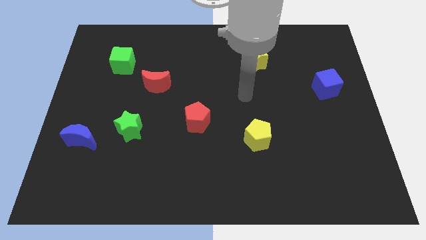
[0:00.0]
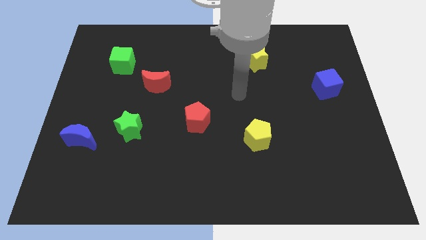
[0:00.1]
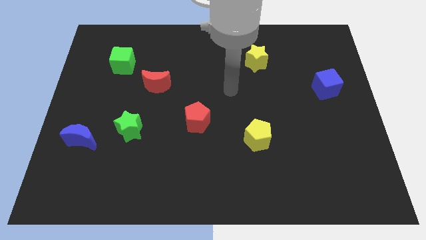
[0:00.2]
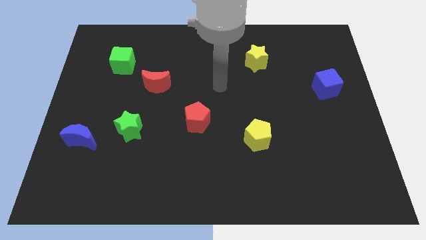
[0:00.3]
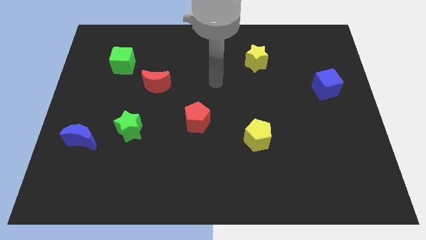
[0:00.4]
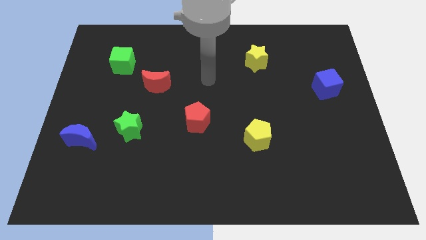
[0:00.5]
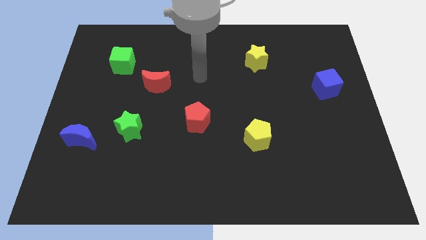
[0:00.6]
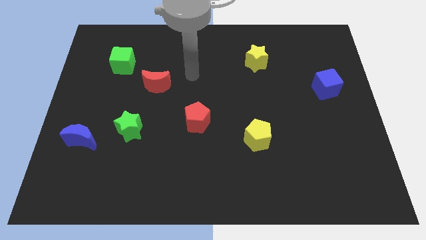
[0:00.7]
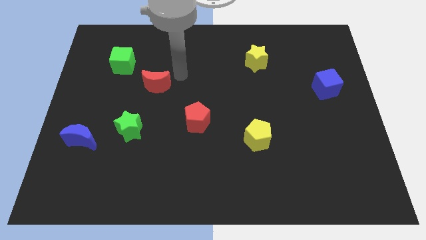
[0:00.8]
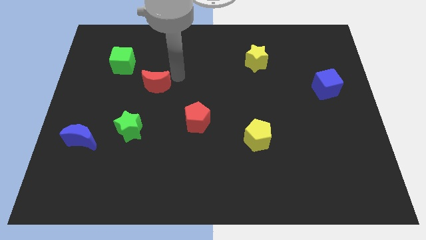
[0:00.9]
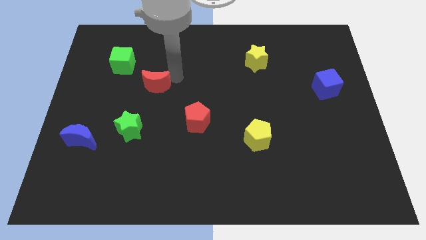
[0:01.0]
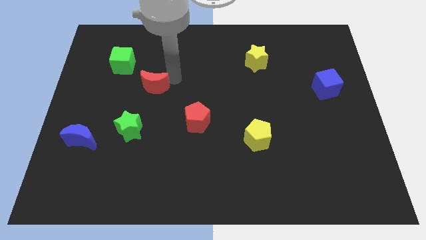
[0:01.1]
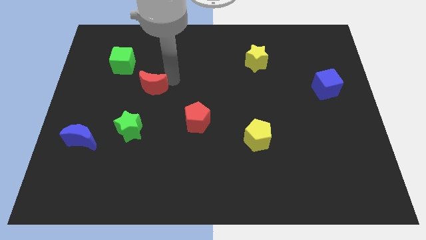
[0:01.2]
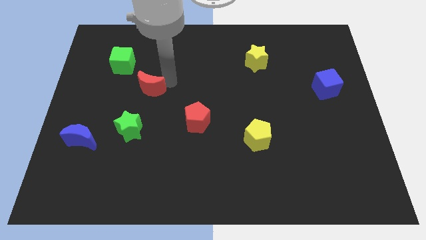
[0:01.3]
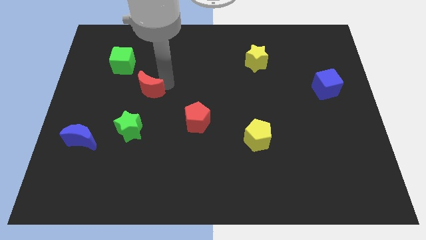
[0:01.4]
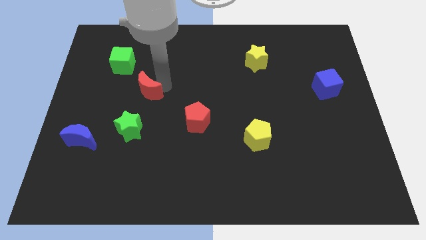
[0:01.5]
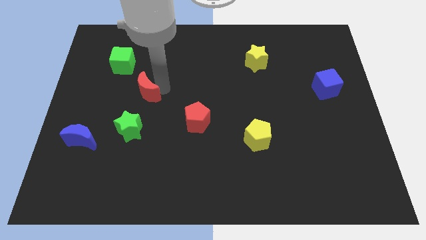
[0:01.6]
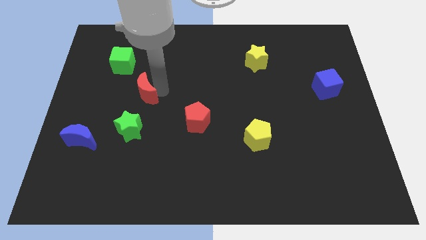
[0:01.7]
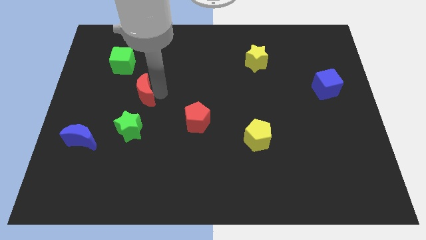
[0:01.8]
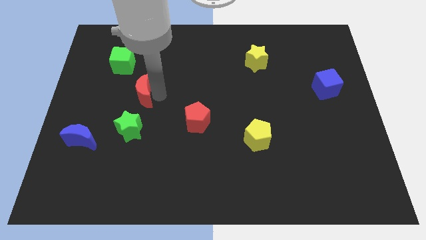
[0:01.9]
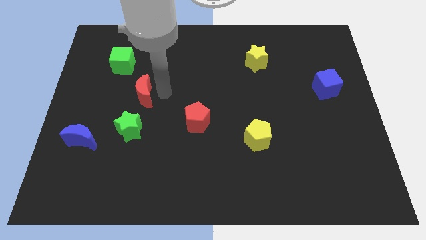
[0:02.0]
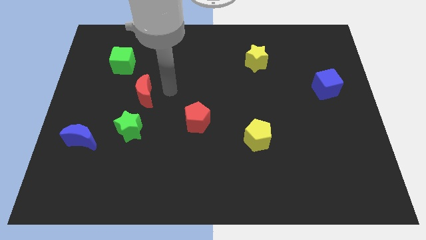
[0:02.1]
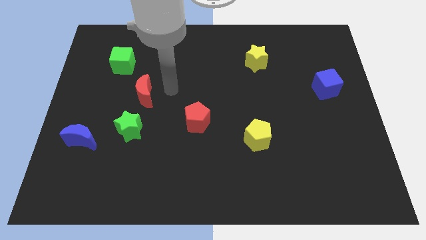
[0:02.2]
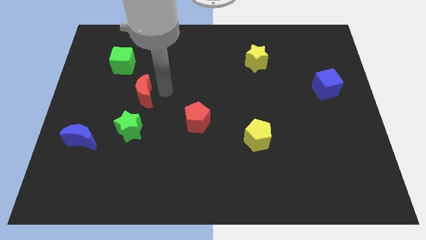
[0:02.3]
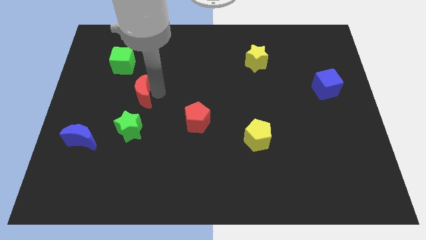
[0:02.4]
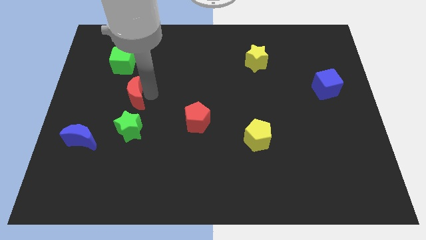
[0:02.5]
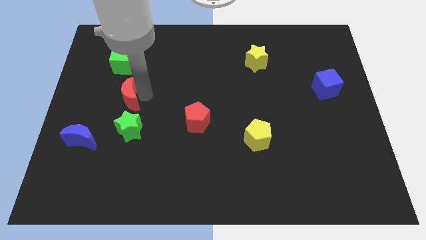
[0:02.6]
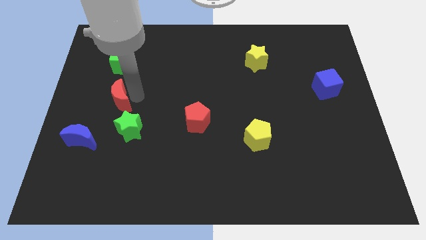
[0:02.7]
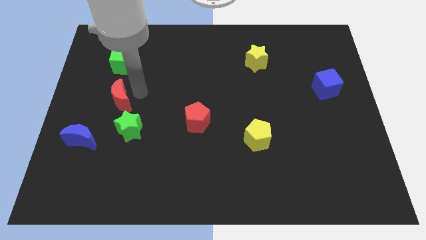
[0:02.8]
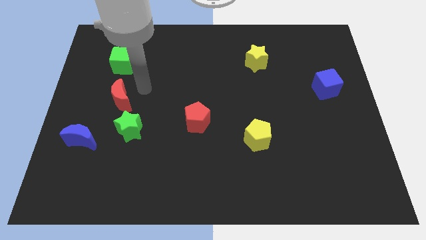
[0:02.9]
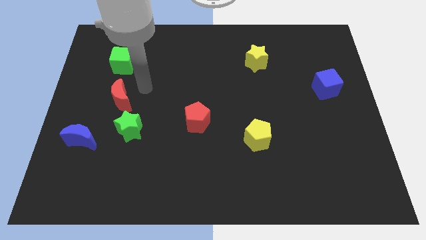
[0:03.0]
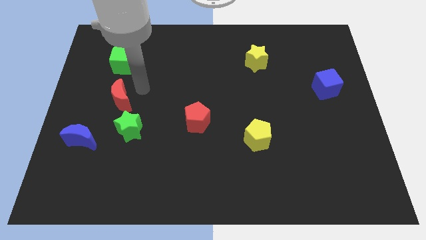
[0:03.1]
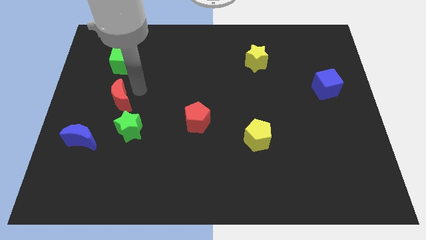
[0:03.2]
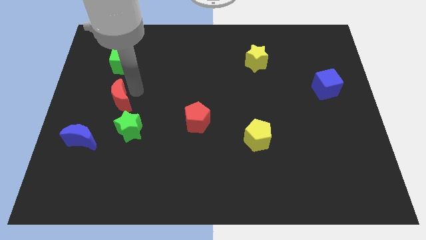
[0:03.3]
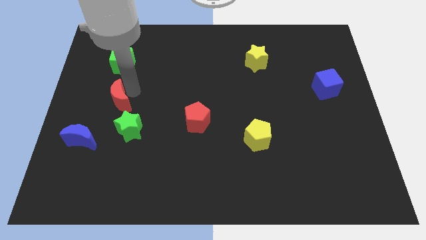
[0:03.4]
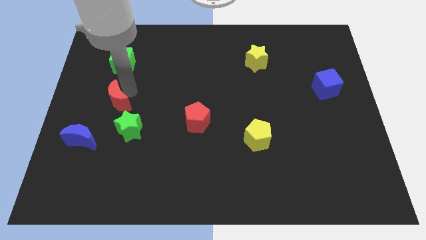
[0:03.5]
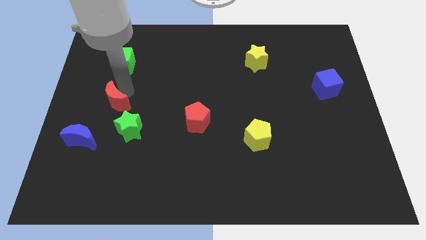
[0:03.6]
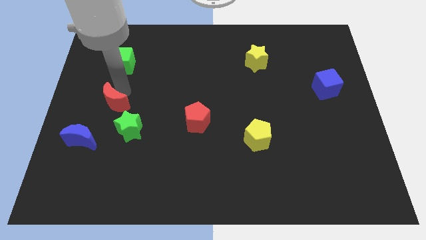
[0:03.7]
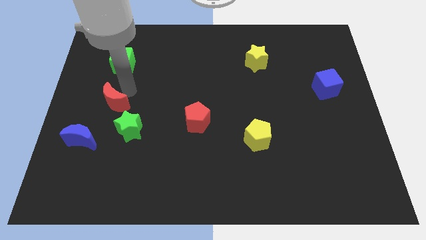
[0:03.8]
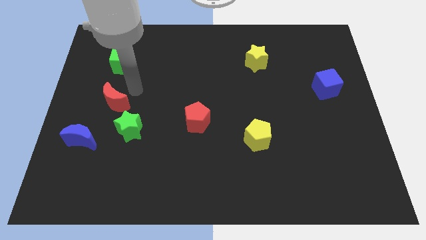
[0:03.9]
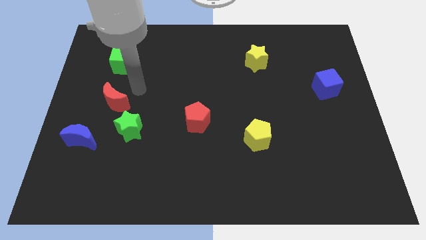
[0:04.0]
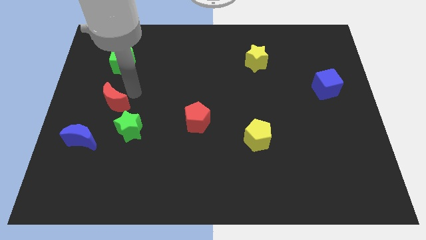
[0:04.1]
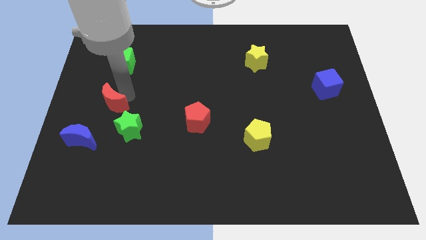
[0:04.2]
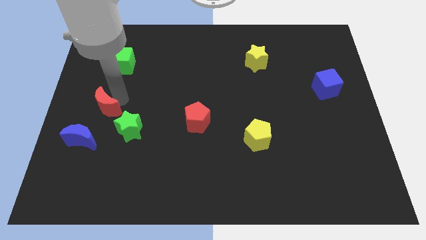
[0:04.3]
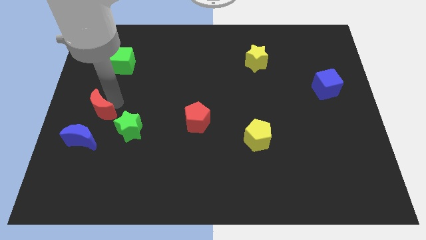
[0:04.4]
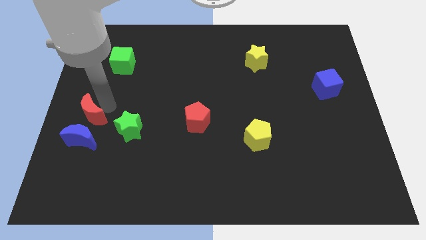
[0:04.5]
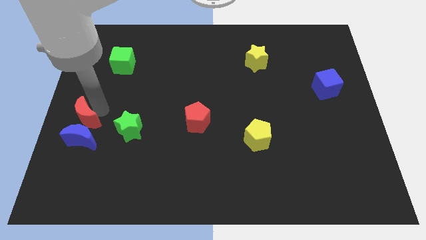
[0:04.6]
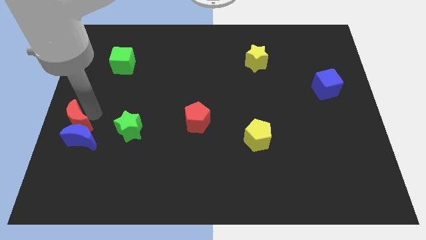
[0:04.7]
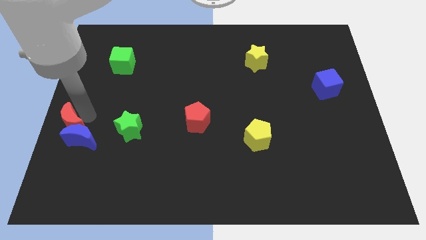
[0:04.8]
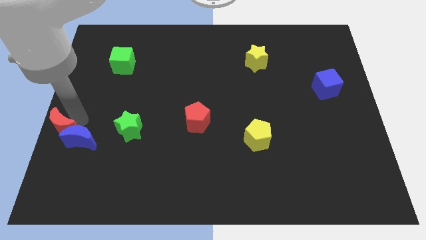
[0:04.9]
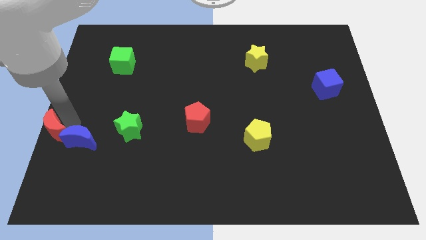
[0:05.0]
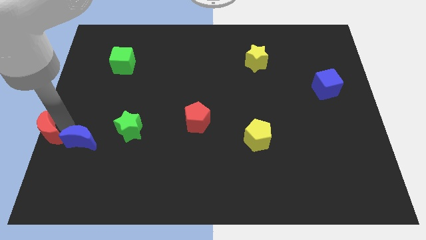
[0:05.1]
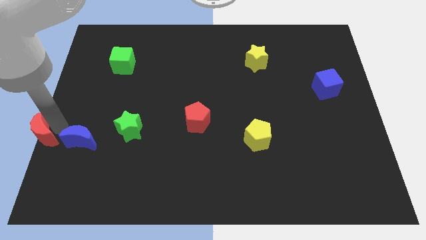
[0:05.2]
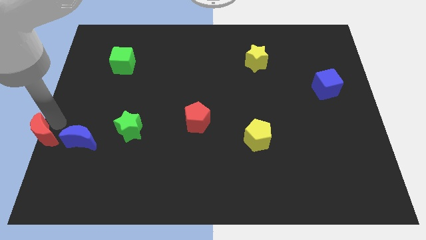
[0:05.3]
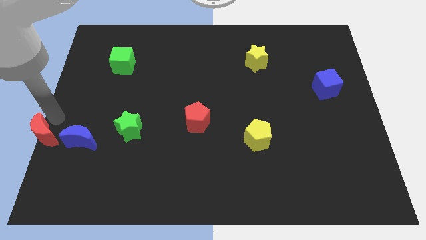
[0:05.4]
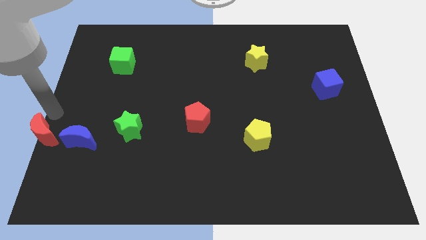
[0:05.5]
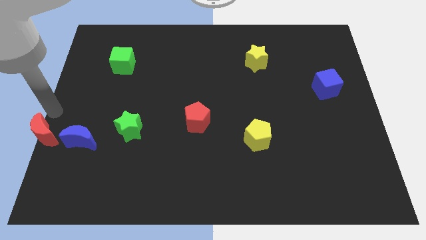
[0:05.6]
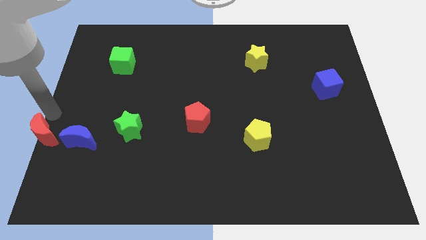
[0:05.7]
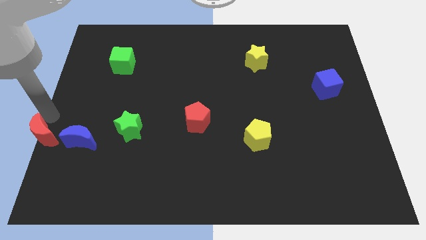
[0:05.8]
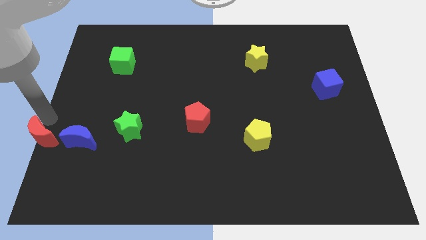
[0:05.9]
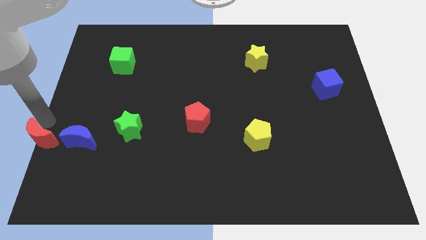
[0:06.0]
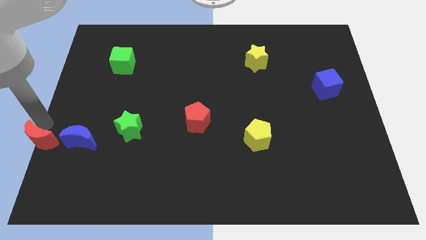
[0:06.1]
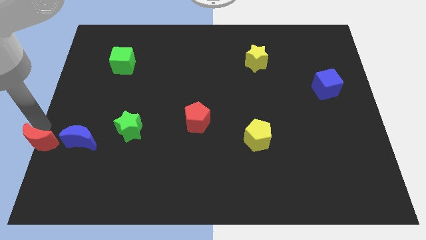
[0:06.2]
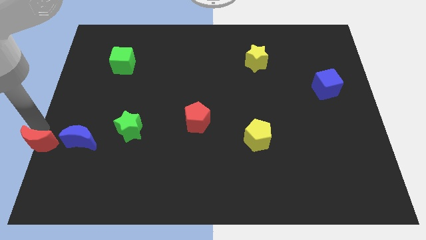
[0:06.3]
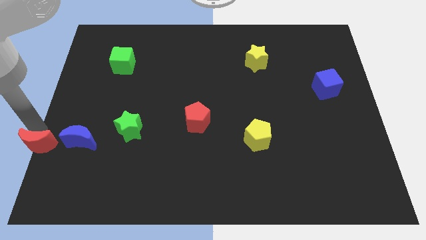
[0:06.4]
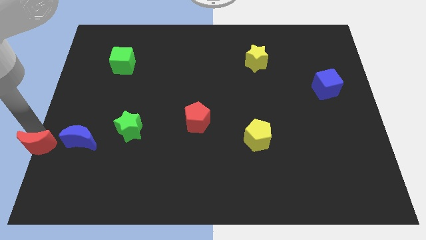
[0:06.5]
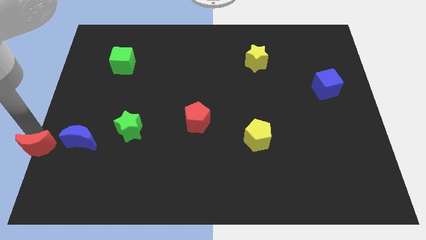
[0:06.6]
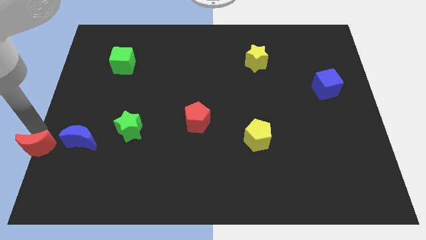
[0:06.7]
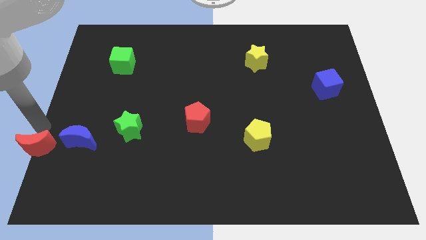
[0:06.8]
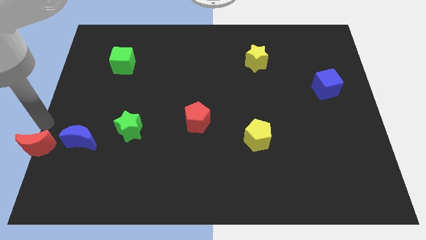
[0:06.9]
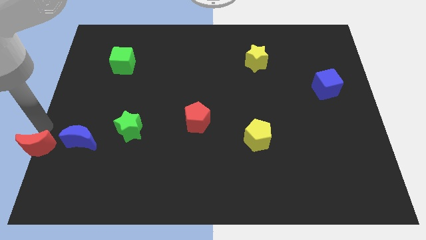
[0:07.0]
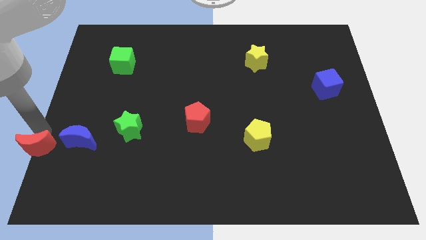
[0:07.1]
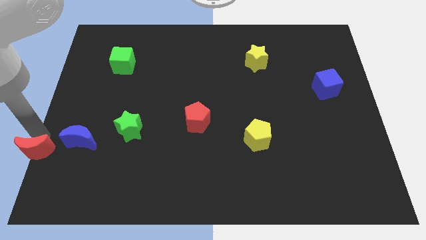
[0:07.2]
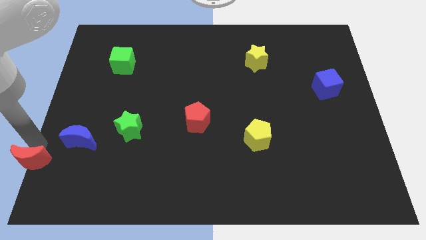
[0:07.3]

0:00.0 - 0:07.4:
move the red moon to the bottom left corner
